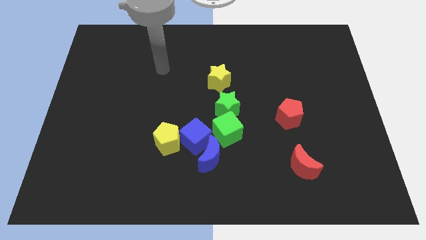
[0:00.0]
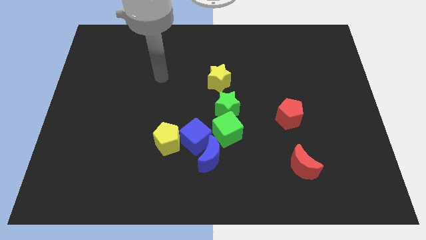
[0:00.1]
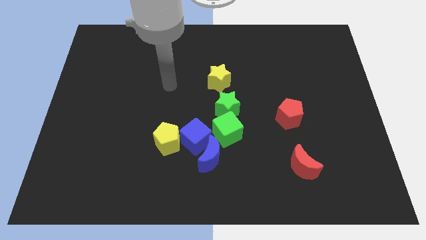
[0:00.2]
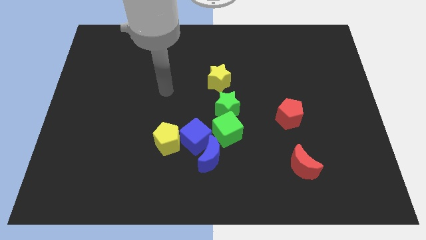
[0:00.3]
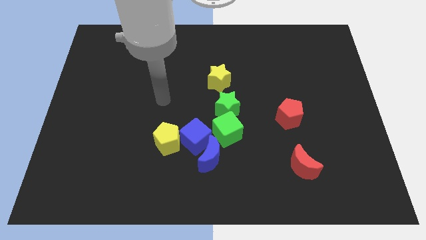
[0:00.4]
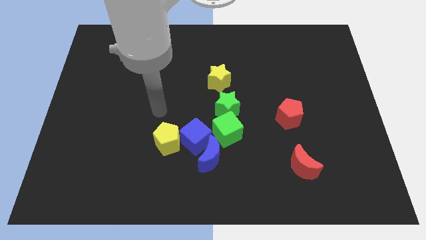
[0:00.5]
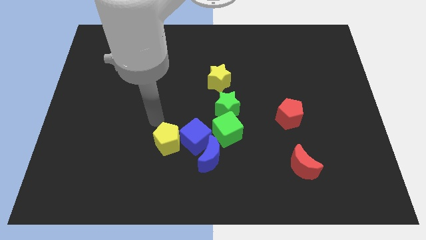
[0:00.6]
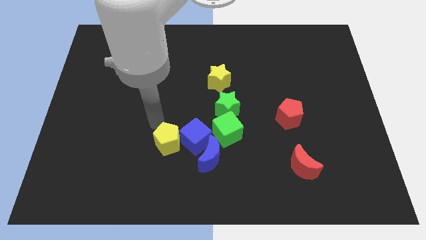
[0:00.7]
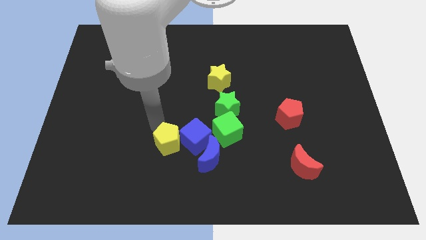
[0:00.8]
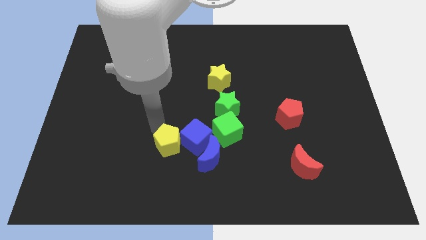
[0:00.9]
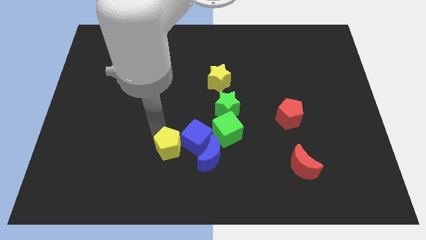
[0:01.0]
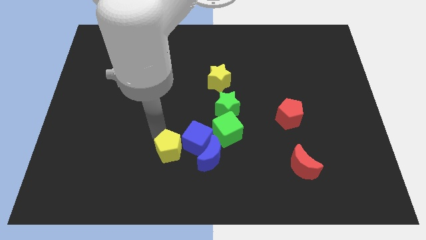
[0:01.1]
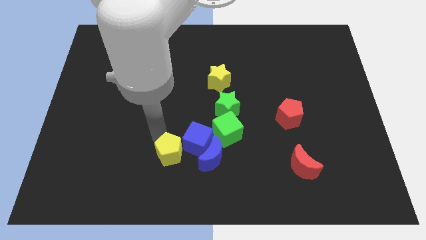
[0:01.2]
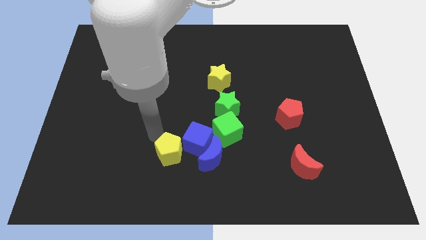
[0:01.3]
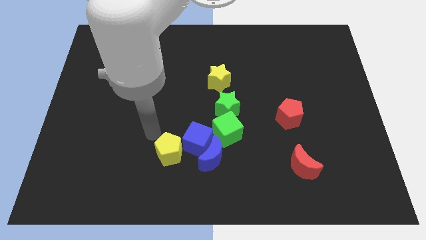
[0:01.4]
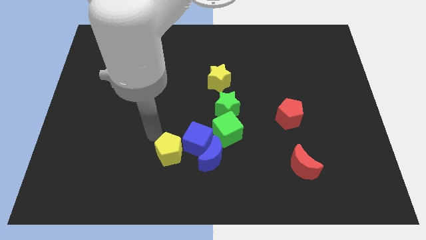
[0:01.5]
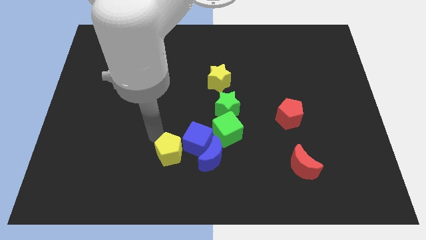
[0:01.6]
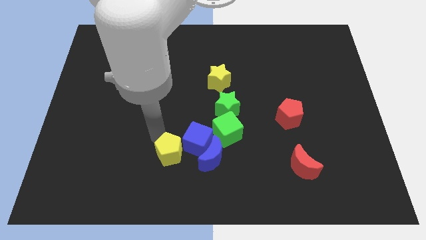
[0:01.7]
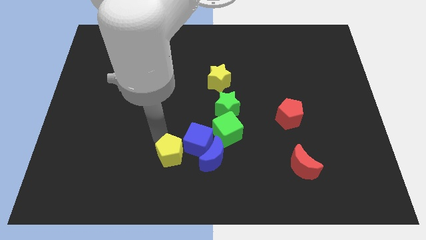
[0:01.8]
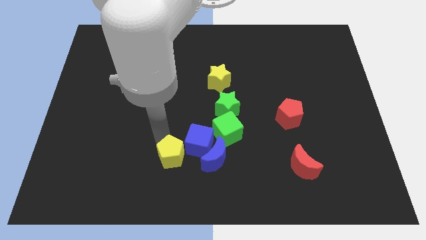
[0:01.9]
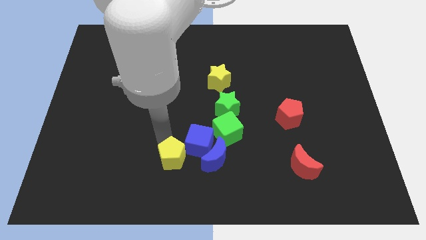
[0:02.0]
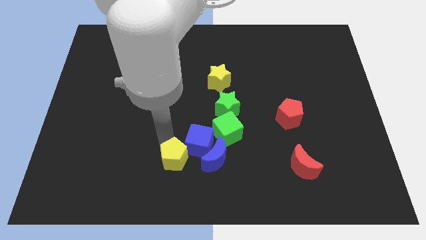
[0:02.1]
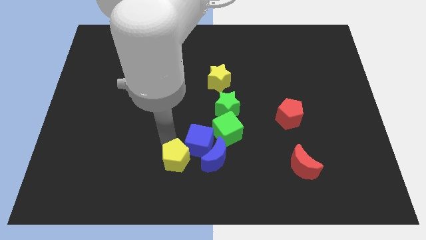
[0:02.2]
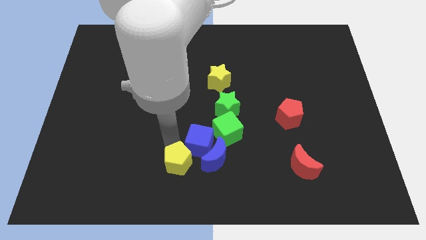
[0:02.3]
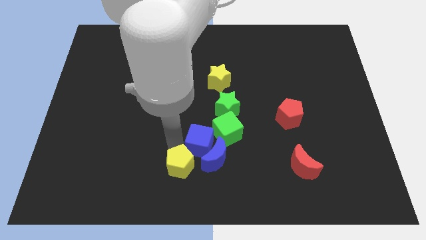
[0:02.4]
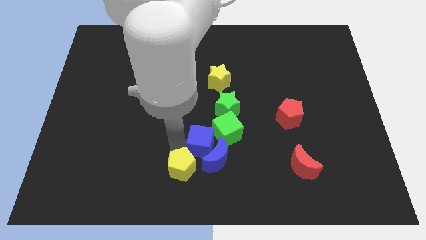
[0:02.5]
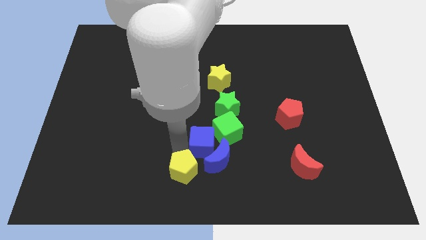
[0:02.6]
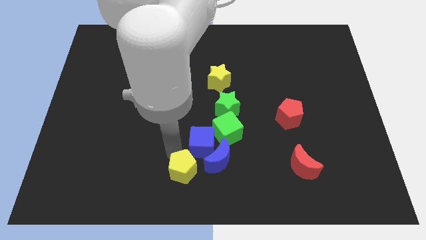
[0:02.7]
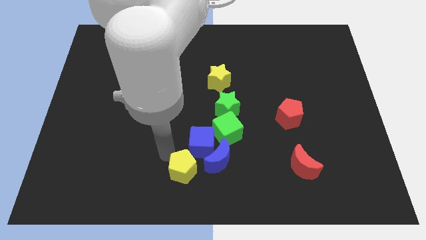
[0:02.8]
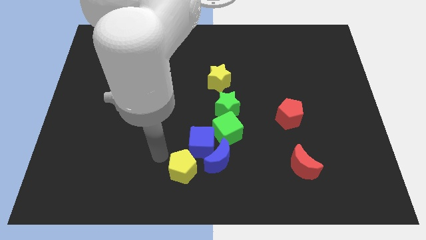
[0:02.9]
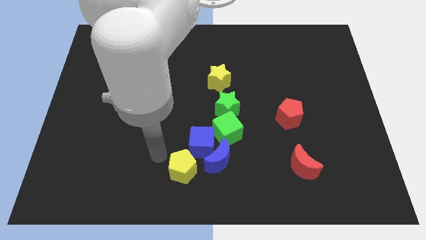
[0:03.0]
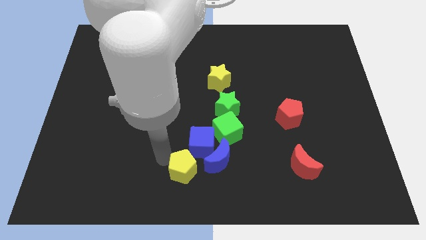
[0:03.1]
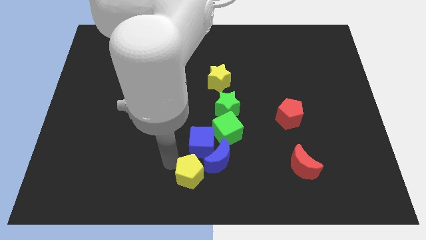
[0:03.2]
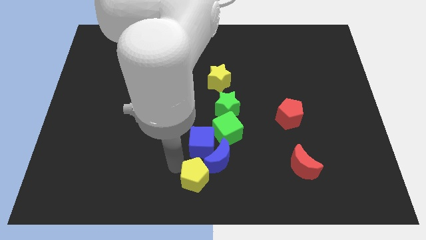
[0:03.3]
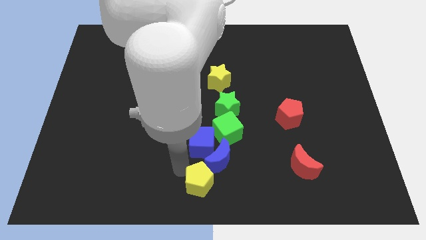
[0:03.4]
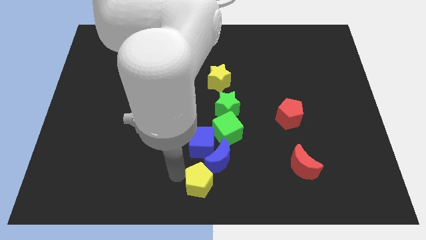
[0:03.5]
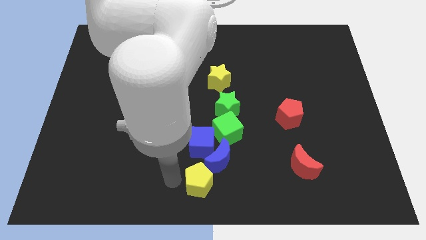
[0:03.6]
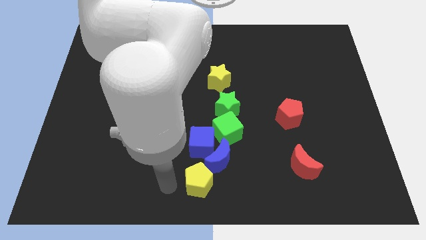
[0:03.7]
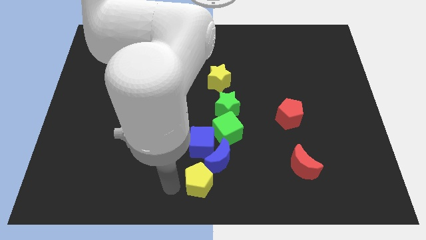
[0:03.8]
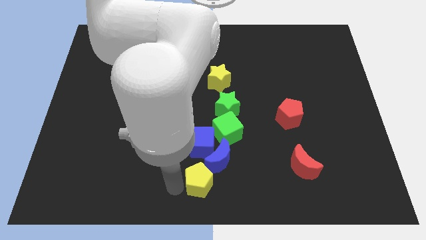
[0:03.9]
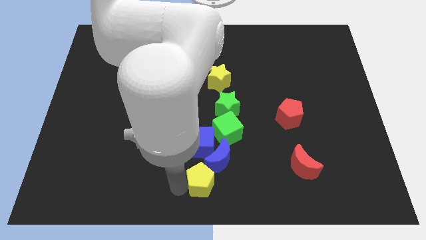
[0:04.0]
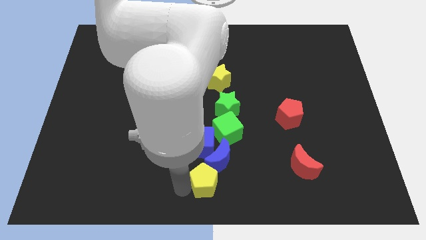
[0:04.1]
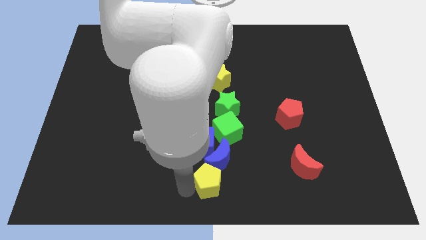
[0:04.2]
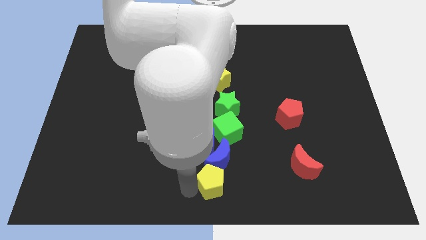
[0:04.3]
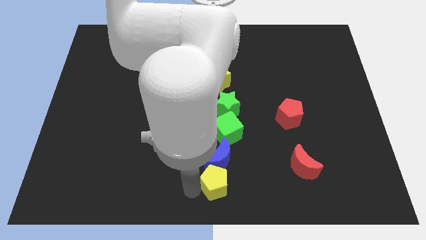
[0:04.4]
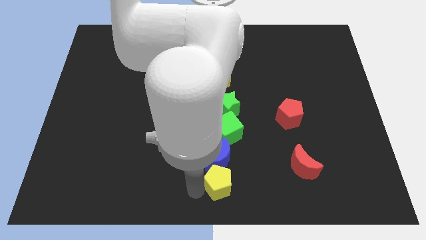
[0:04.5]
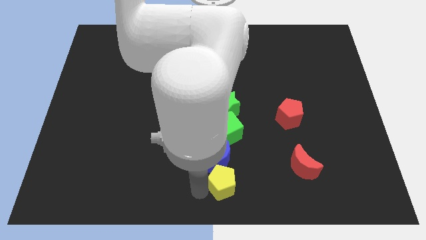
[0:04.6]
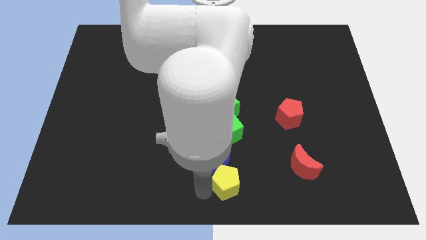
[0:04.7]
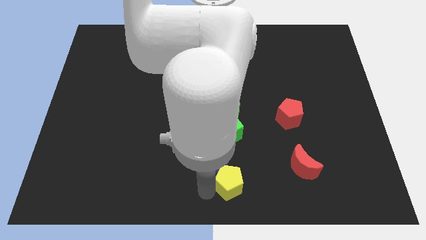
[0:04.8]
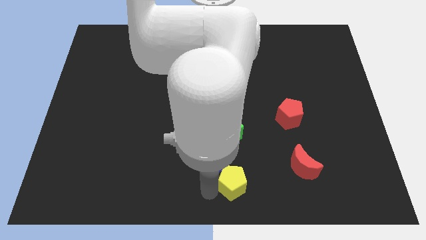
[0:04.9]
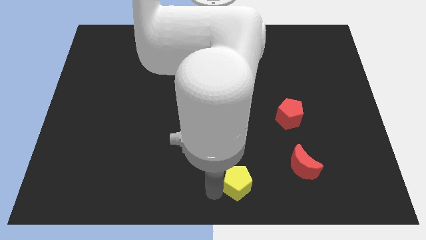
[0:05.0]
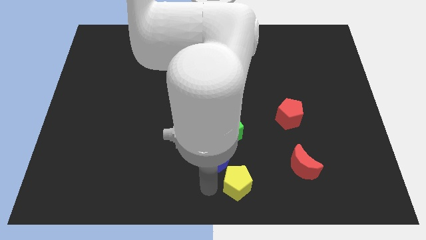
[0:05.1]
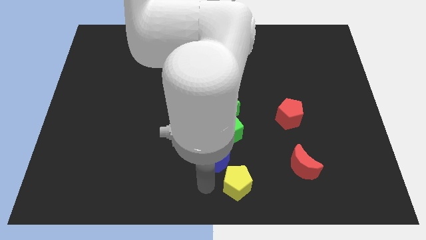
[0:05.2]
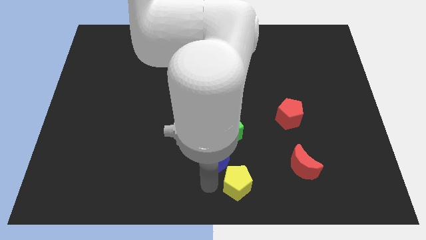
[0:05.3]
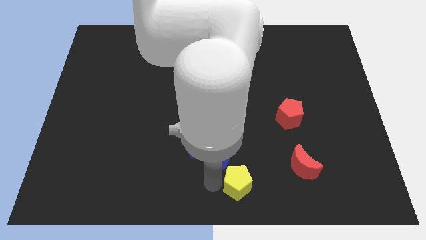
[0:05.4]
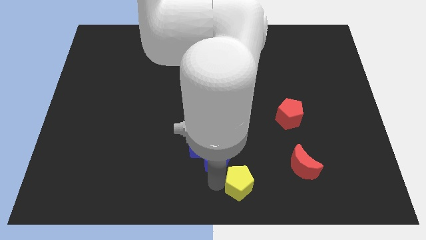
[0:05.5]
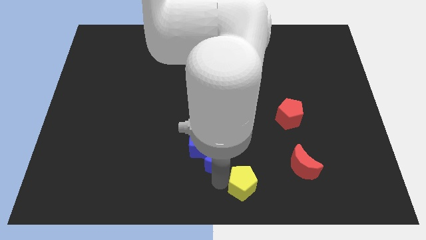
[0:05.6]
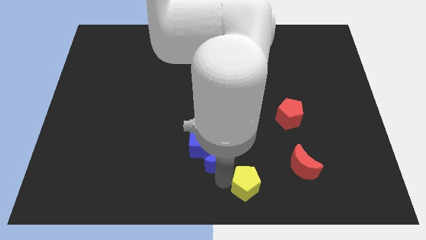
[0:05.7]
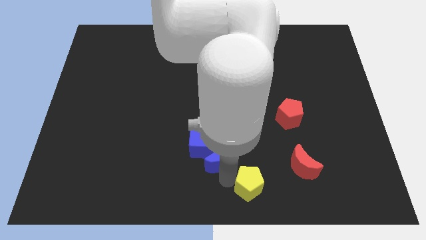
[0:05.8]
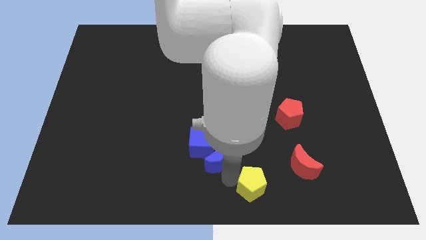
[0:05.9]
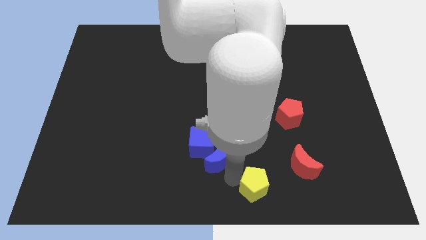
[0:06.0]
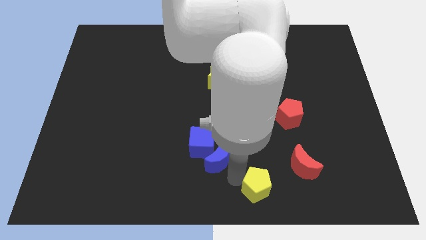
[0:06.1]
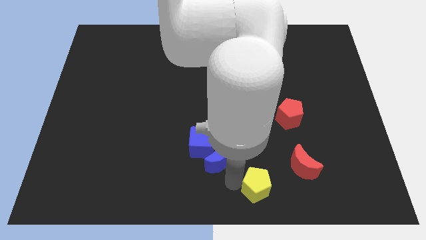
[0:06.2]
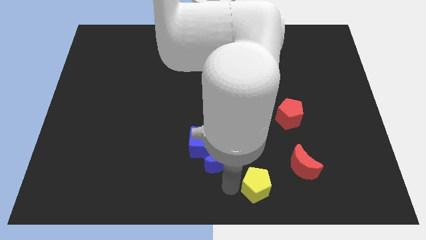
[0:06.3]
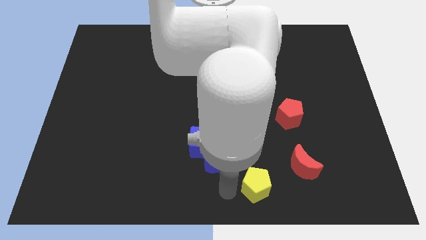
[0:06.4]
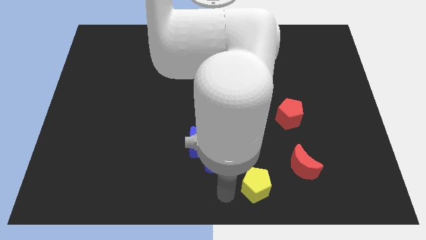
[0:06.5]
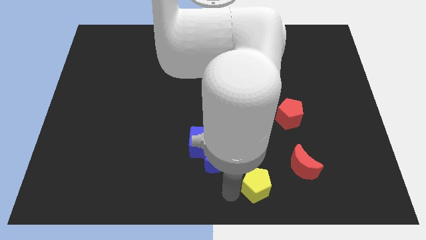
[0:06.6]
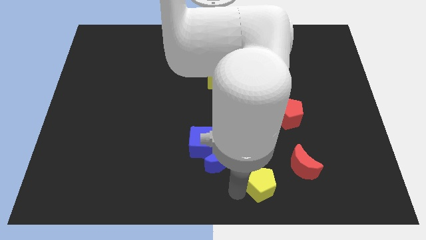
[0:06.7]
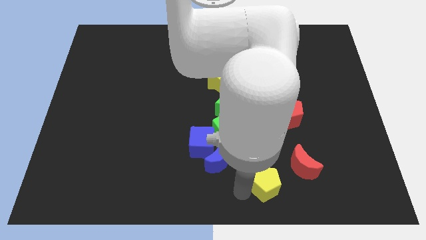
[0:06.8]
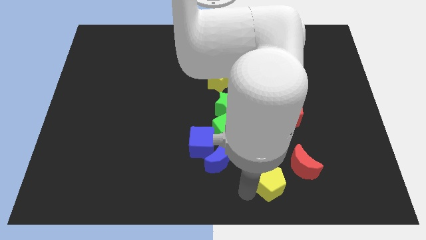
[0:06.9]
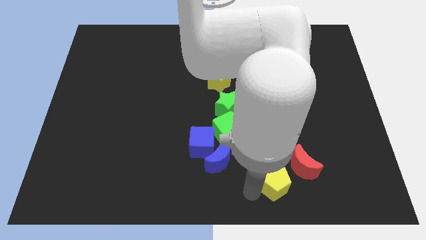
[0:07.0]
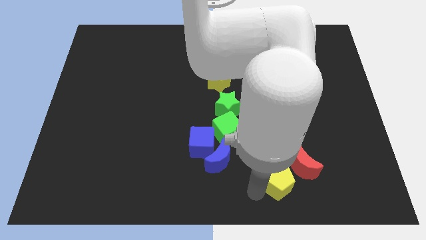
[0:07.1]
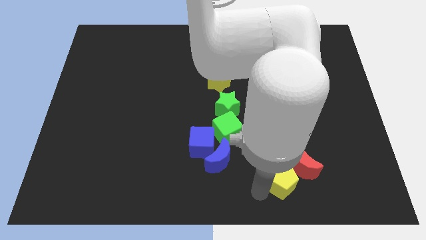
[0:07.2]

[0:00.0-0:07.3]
push the yellow pentagon next to the red moon

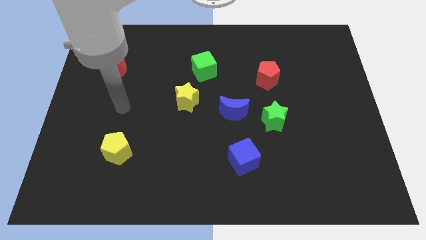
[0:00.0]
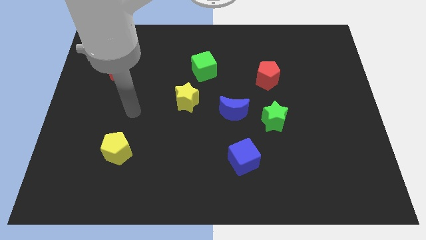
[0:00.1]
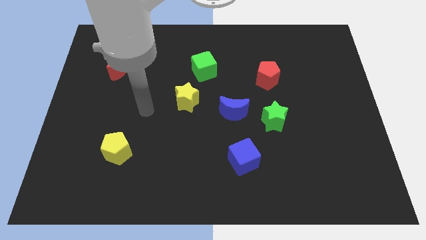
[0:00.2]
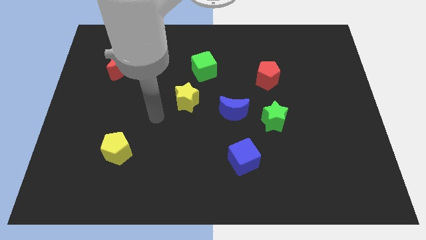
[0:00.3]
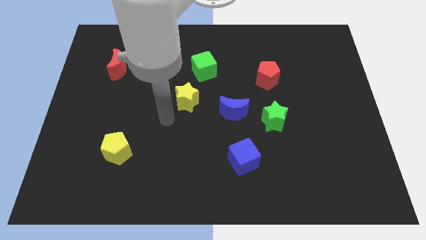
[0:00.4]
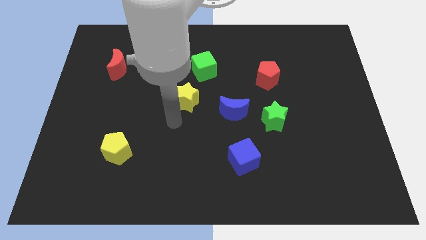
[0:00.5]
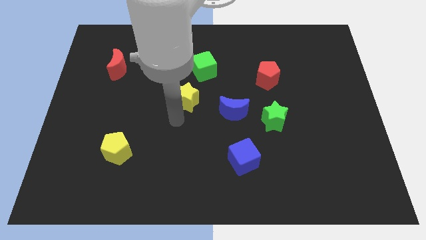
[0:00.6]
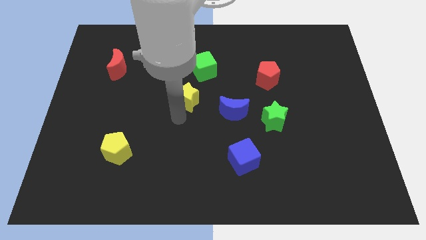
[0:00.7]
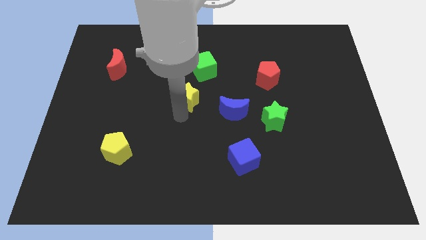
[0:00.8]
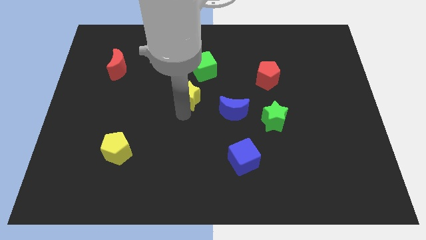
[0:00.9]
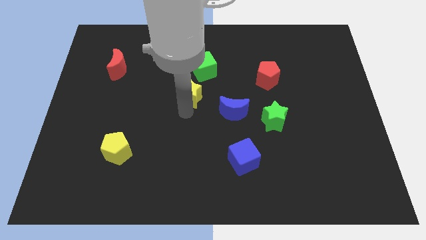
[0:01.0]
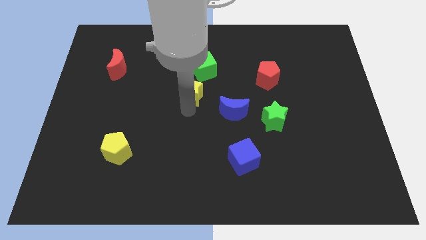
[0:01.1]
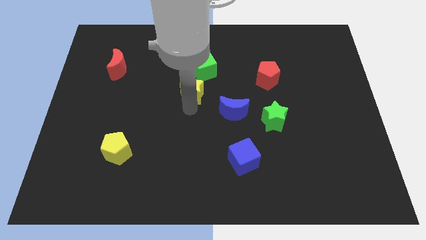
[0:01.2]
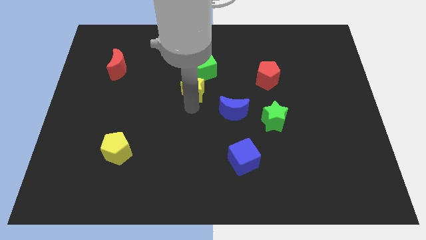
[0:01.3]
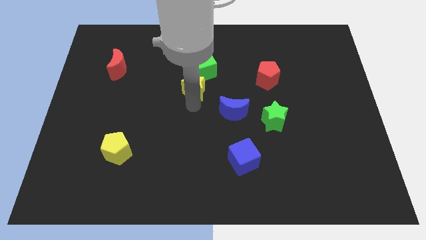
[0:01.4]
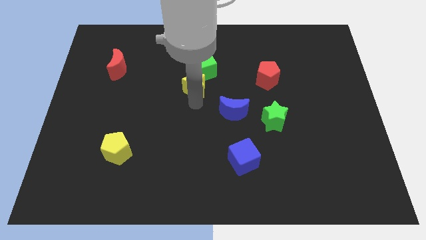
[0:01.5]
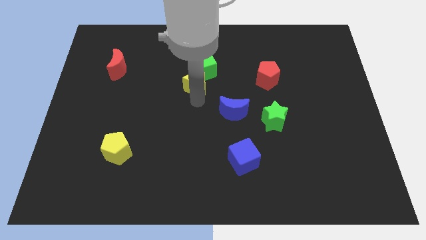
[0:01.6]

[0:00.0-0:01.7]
slide the yellow star to the green cube
